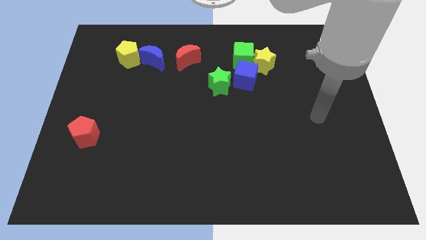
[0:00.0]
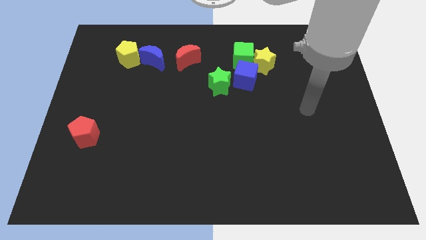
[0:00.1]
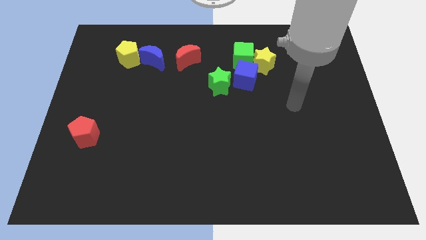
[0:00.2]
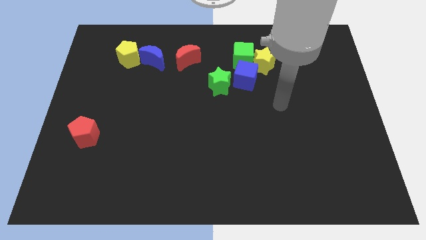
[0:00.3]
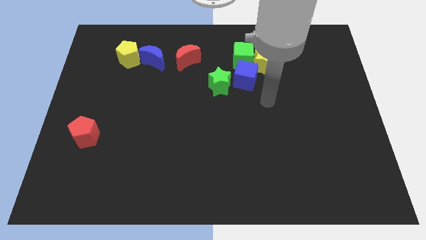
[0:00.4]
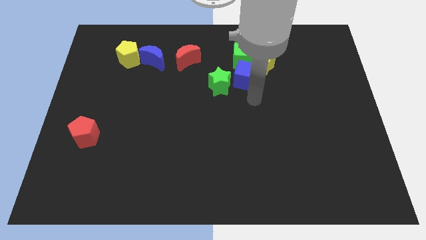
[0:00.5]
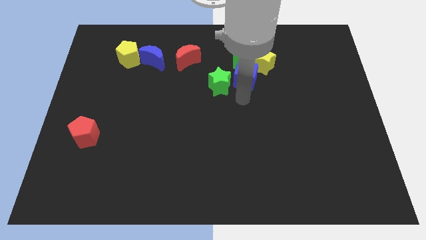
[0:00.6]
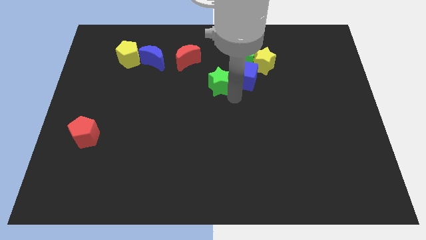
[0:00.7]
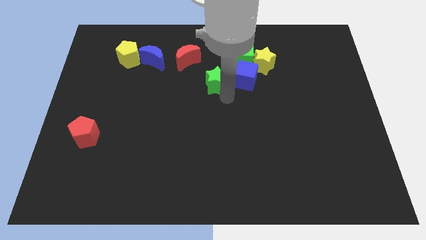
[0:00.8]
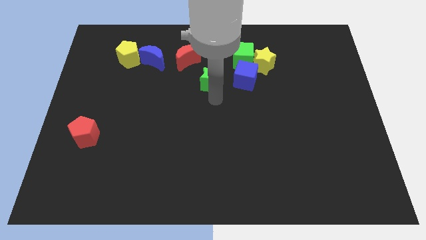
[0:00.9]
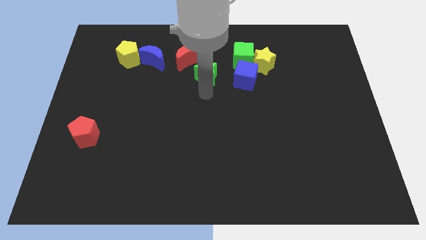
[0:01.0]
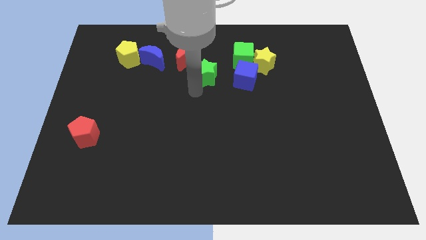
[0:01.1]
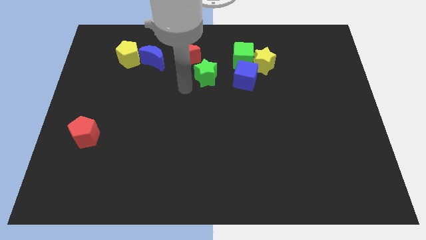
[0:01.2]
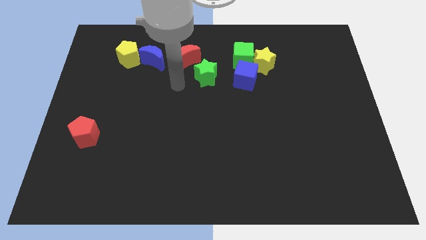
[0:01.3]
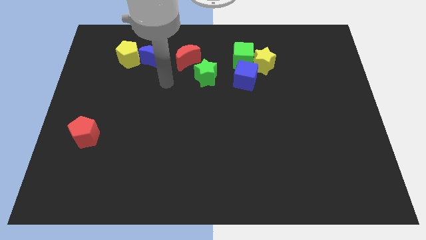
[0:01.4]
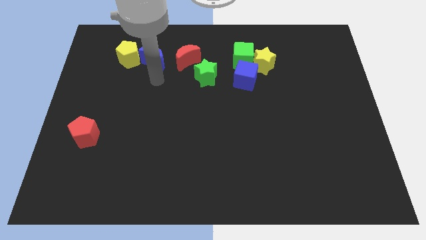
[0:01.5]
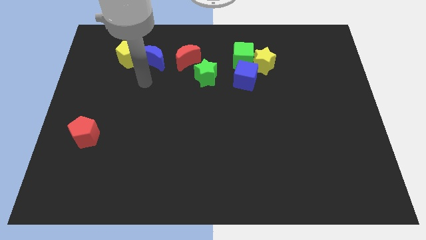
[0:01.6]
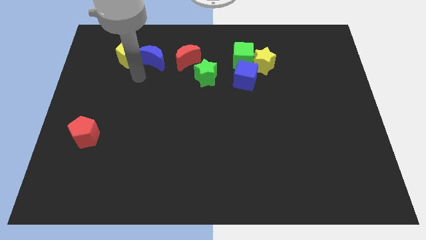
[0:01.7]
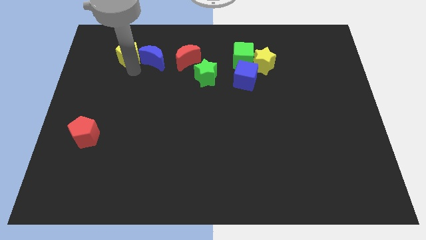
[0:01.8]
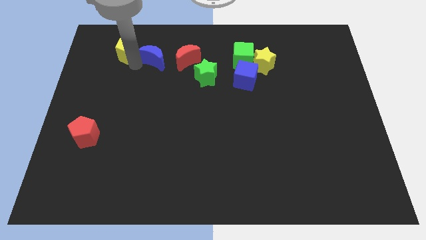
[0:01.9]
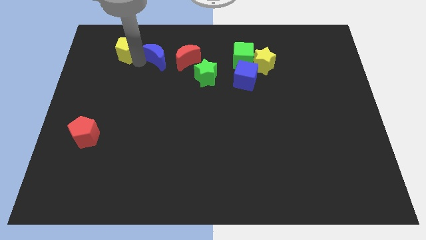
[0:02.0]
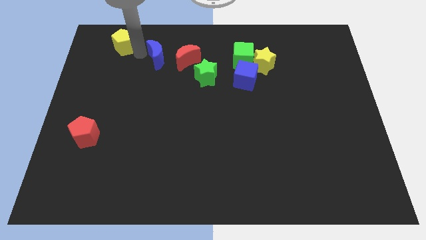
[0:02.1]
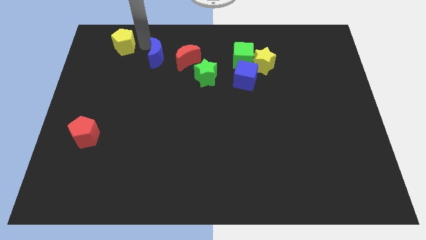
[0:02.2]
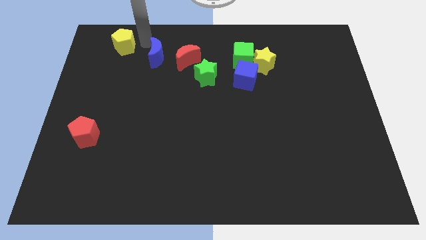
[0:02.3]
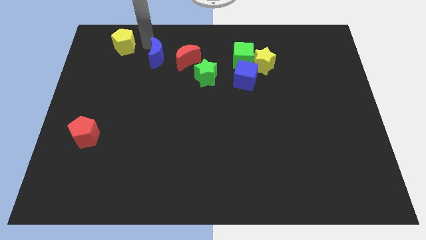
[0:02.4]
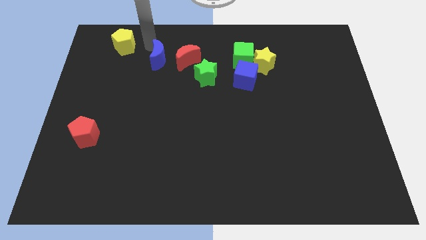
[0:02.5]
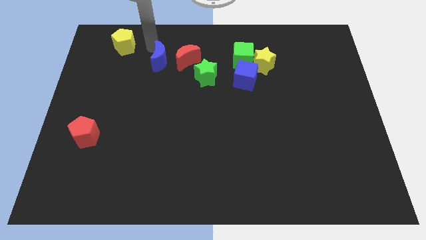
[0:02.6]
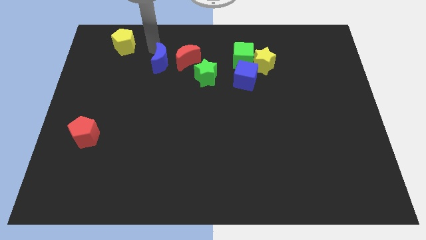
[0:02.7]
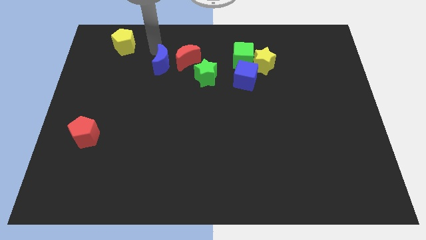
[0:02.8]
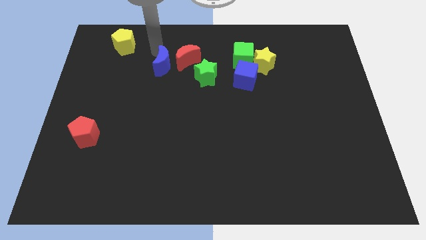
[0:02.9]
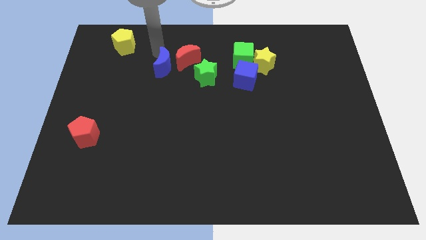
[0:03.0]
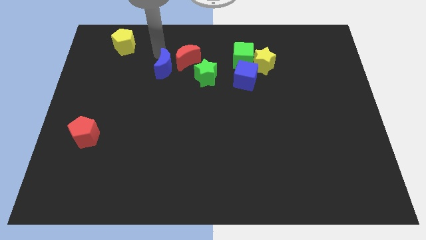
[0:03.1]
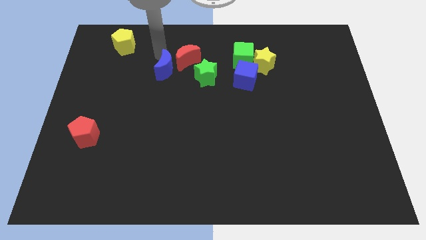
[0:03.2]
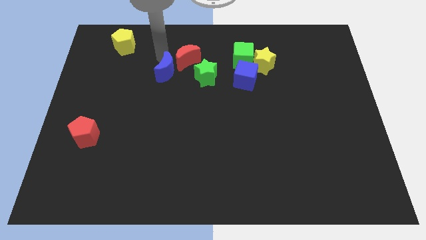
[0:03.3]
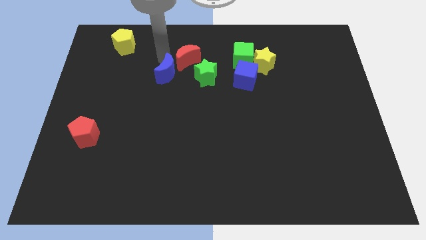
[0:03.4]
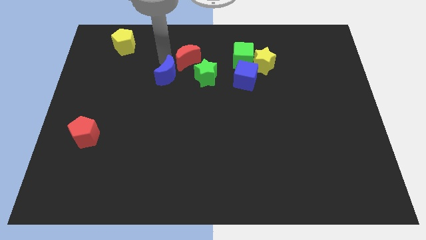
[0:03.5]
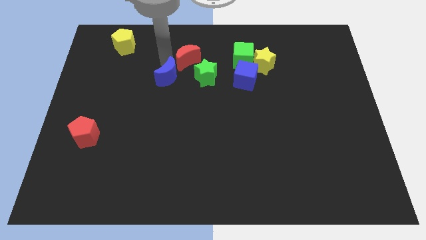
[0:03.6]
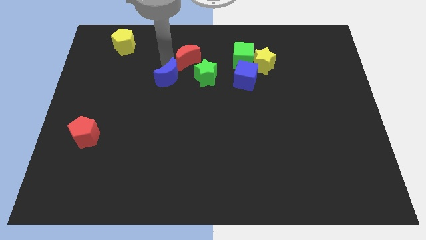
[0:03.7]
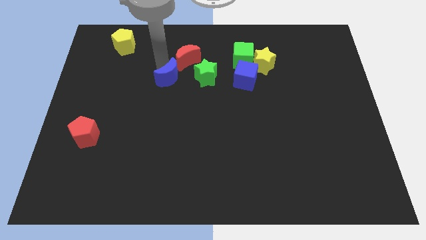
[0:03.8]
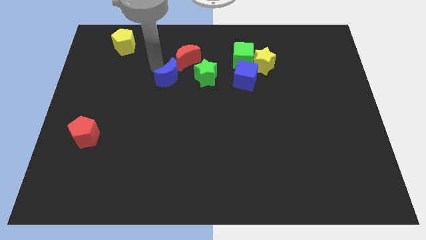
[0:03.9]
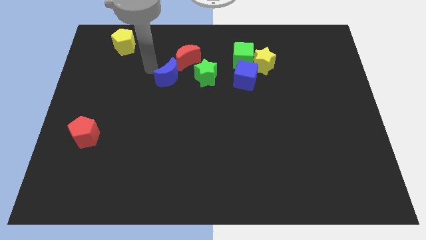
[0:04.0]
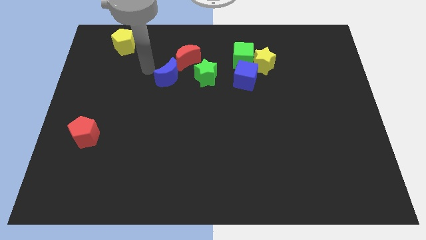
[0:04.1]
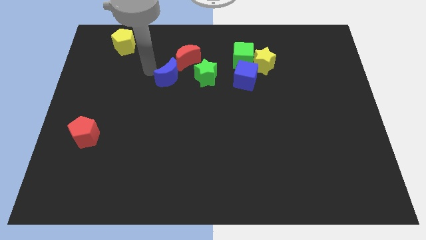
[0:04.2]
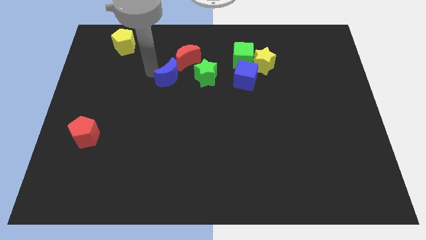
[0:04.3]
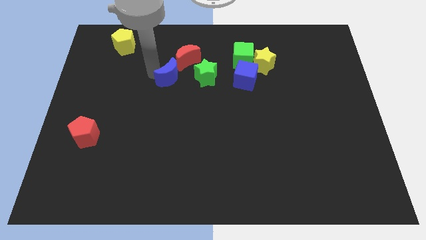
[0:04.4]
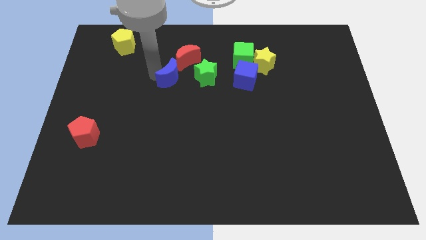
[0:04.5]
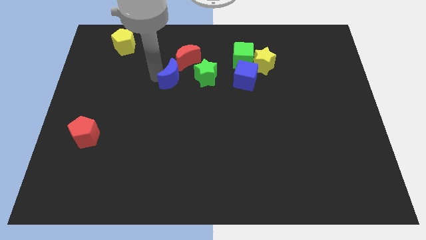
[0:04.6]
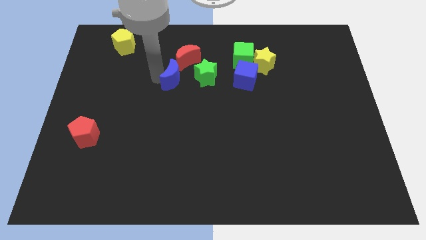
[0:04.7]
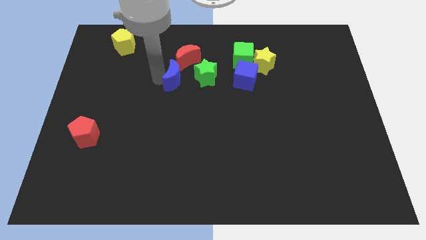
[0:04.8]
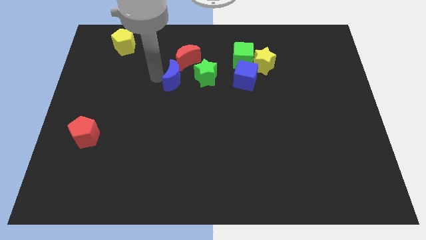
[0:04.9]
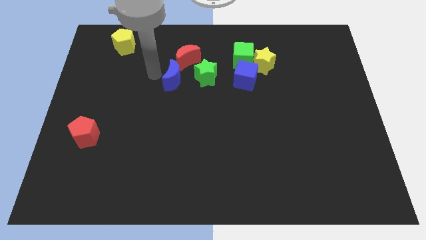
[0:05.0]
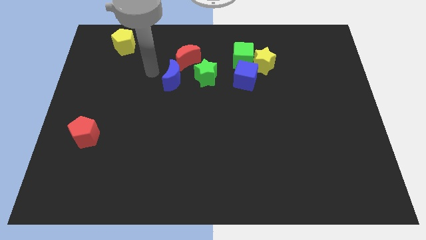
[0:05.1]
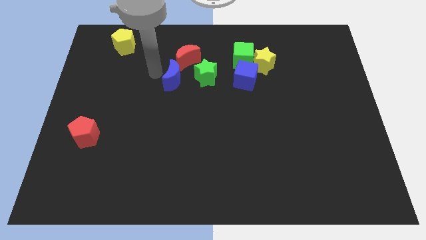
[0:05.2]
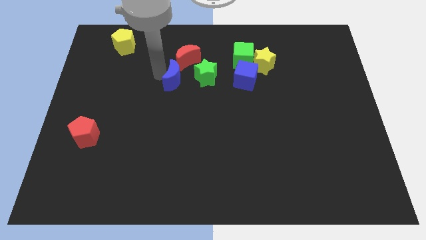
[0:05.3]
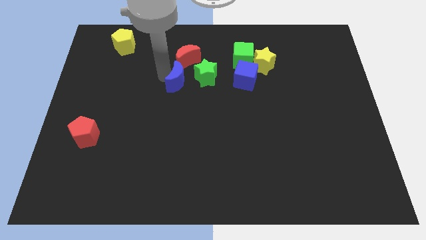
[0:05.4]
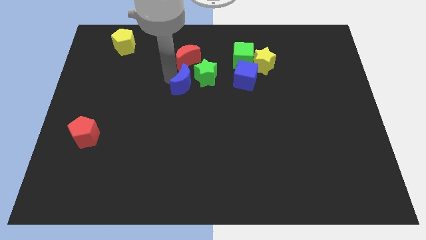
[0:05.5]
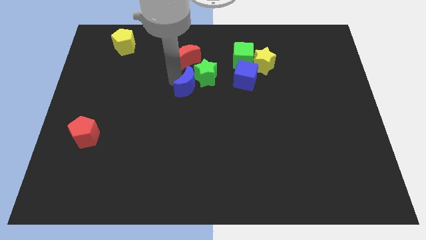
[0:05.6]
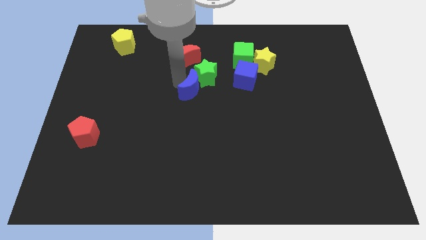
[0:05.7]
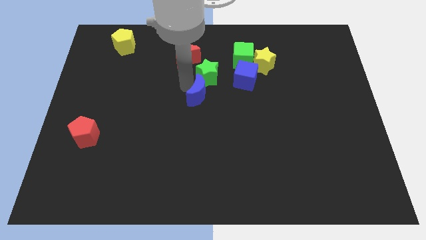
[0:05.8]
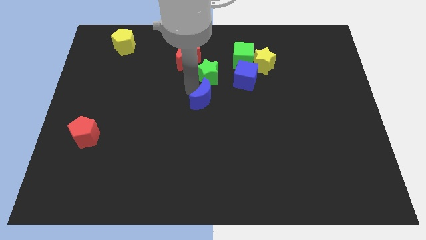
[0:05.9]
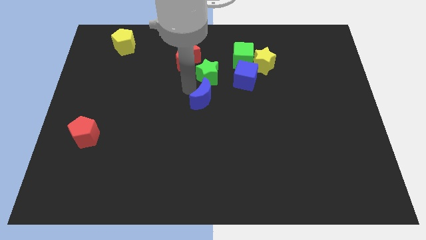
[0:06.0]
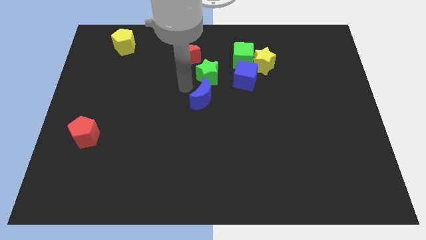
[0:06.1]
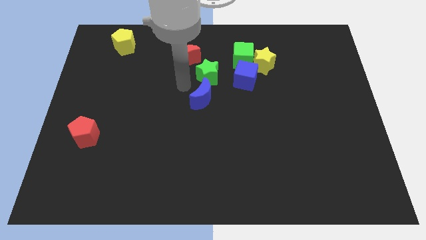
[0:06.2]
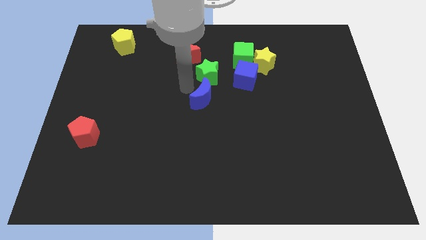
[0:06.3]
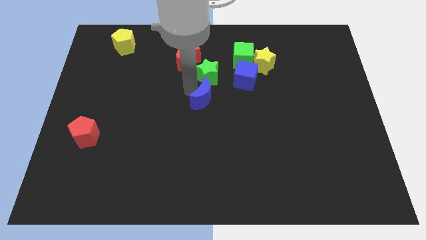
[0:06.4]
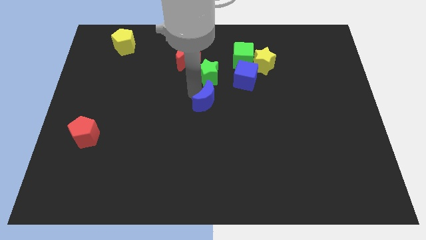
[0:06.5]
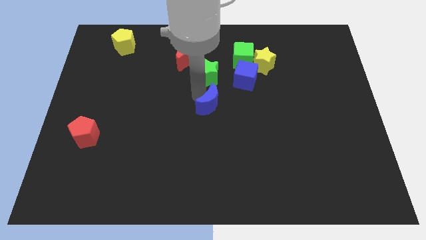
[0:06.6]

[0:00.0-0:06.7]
push the blue moon downwards and then right

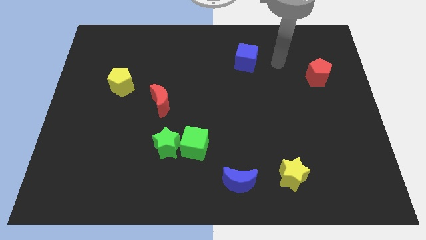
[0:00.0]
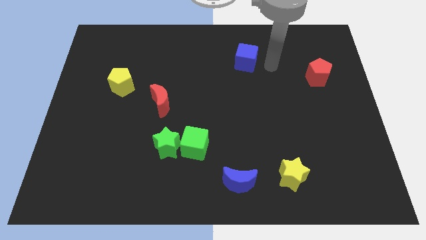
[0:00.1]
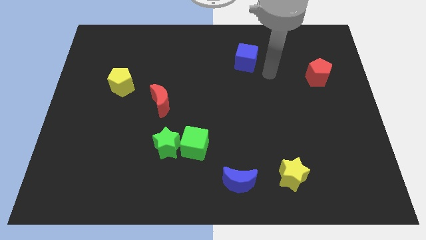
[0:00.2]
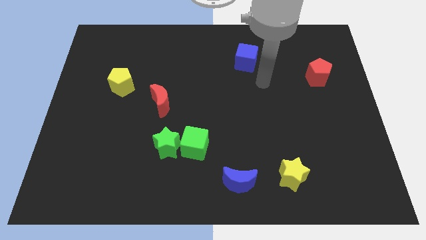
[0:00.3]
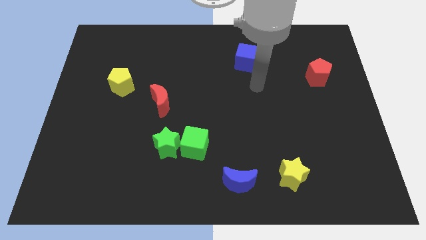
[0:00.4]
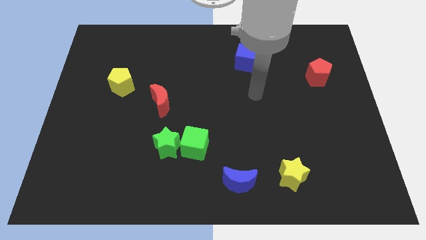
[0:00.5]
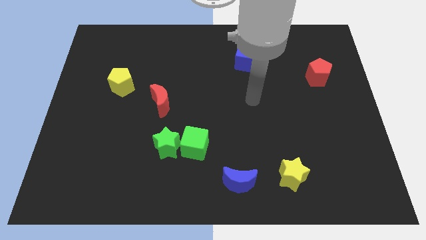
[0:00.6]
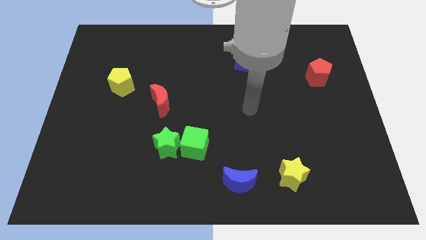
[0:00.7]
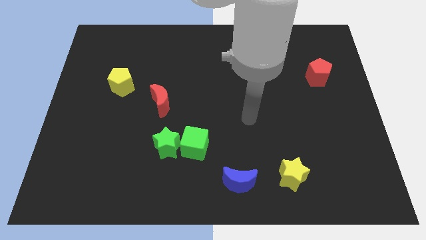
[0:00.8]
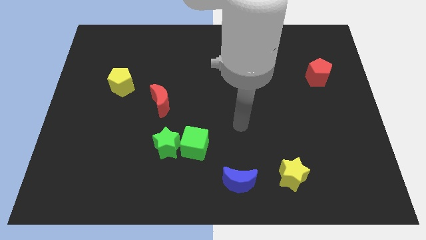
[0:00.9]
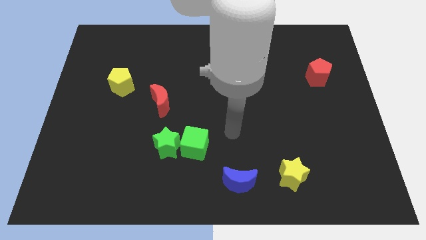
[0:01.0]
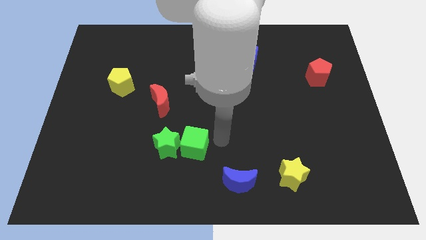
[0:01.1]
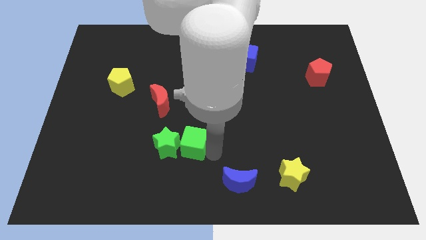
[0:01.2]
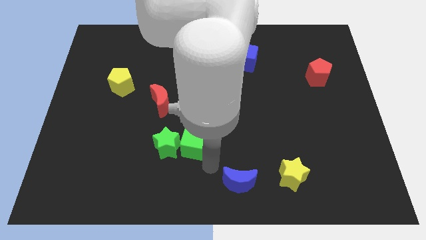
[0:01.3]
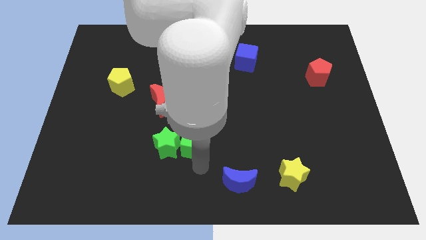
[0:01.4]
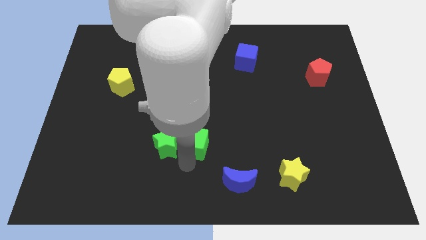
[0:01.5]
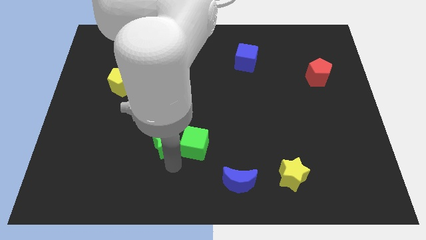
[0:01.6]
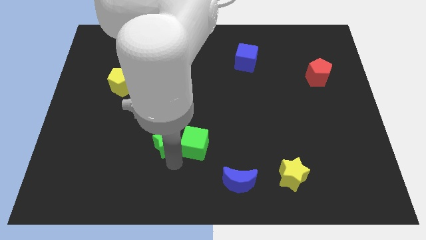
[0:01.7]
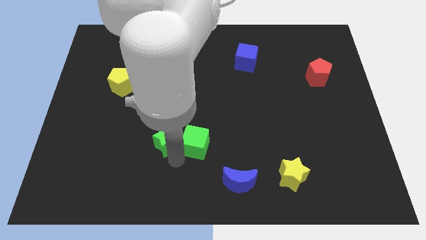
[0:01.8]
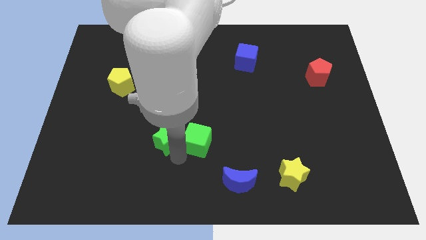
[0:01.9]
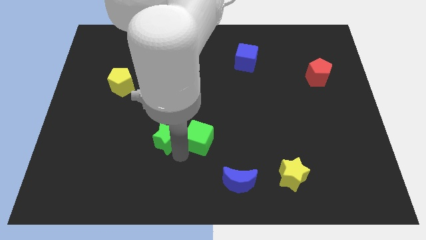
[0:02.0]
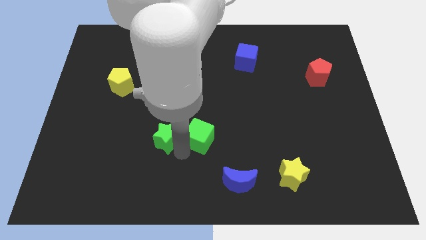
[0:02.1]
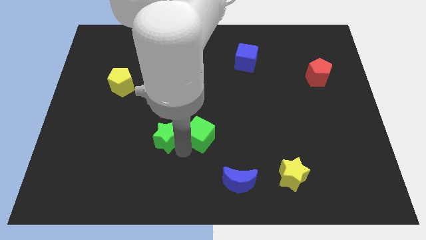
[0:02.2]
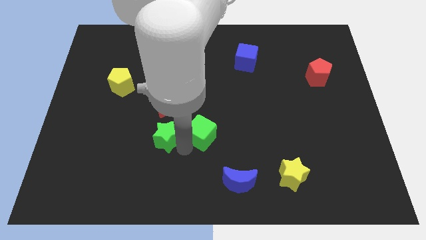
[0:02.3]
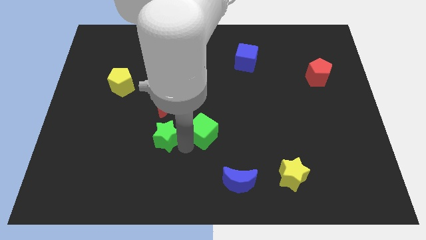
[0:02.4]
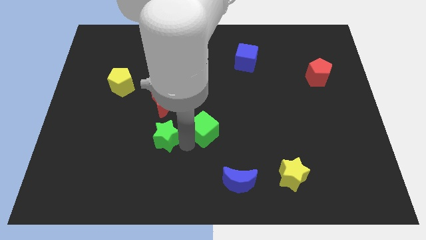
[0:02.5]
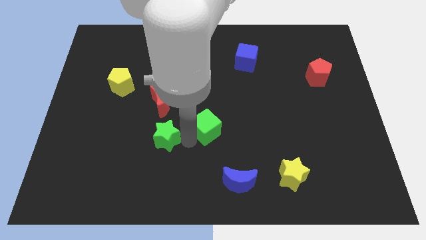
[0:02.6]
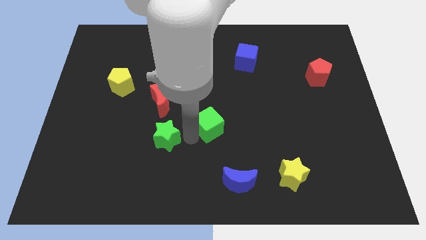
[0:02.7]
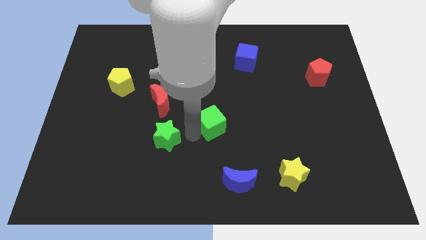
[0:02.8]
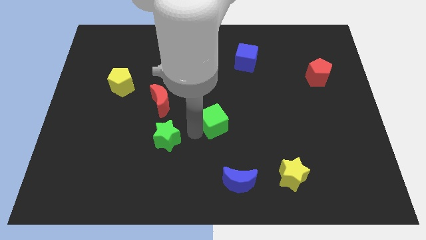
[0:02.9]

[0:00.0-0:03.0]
move the green cube a little bit up and then right
